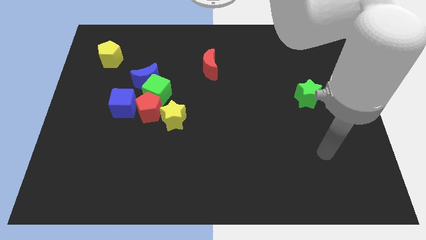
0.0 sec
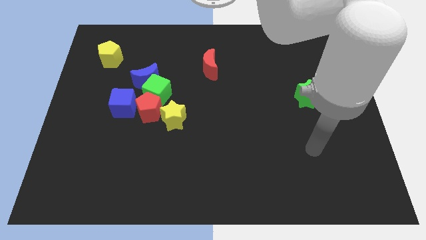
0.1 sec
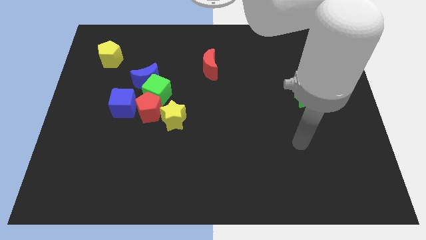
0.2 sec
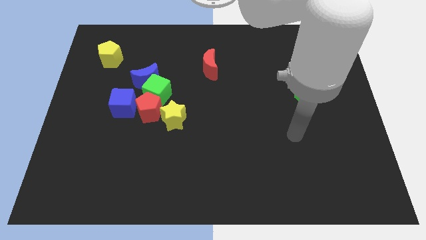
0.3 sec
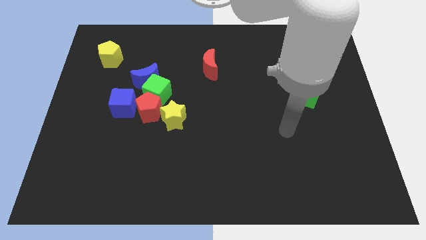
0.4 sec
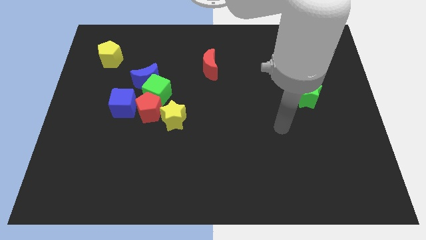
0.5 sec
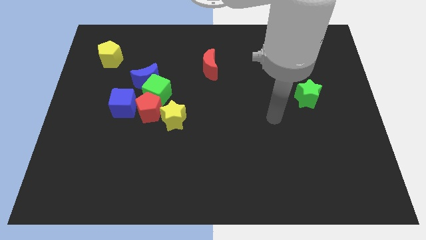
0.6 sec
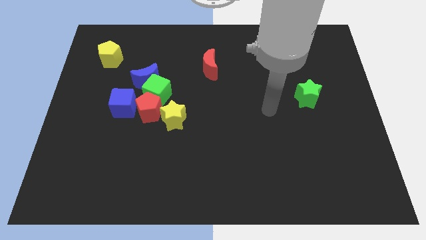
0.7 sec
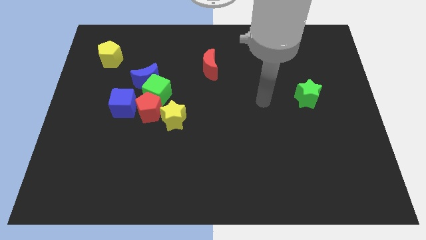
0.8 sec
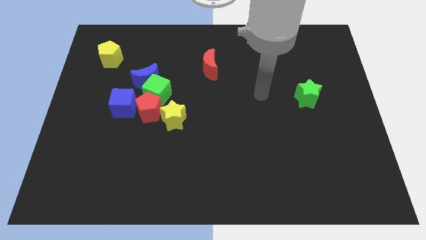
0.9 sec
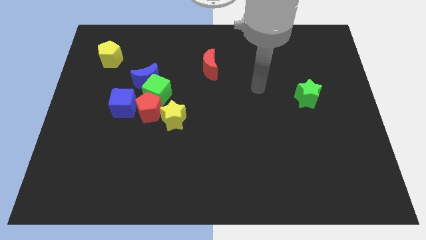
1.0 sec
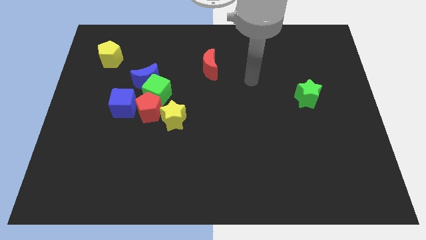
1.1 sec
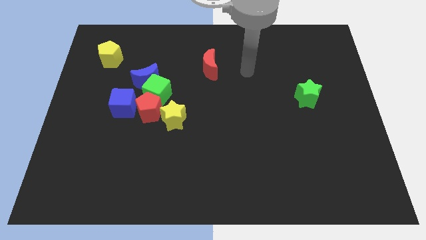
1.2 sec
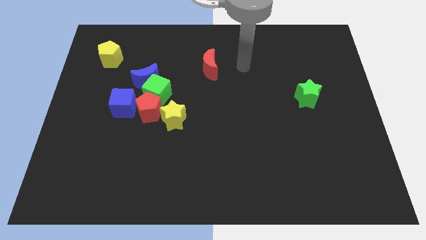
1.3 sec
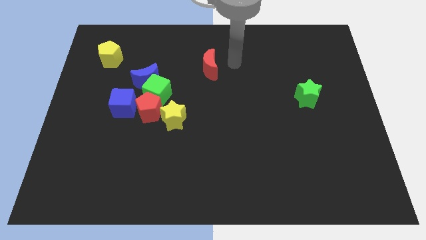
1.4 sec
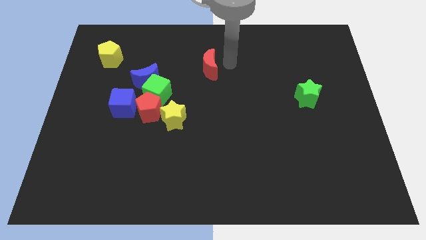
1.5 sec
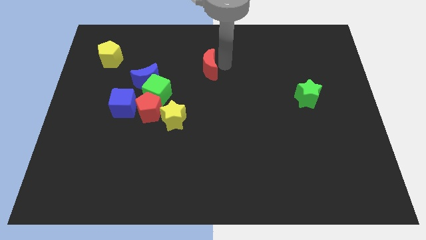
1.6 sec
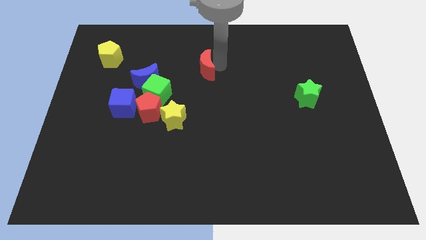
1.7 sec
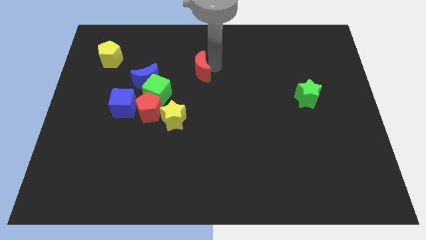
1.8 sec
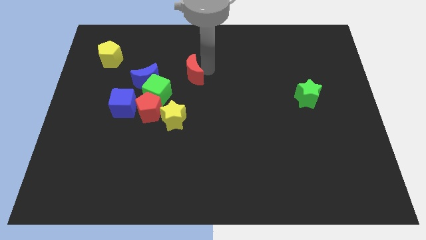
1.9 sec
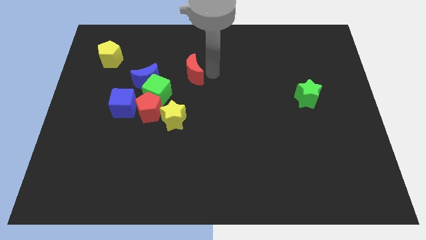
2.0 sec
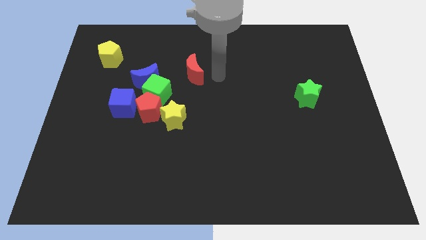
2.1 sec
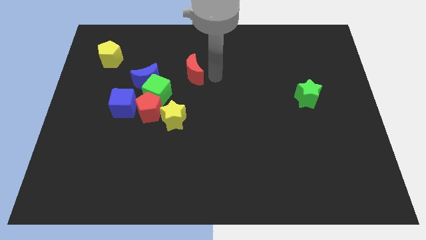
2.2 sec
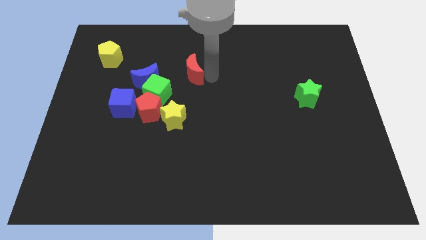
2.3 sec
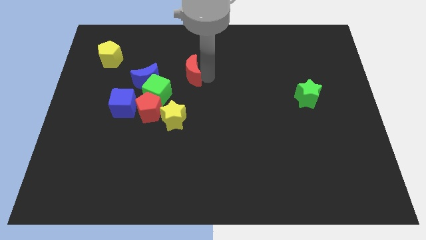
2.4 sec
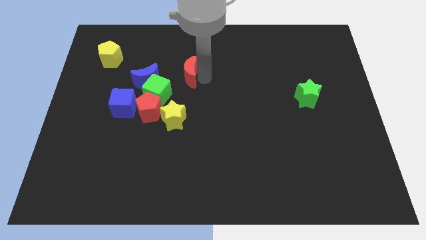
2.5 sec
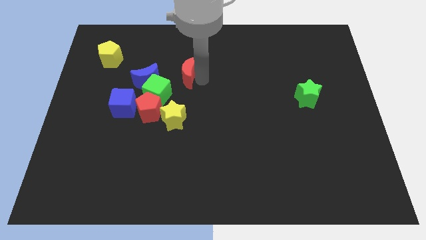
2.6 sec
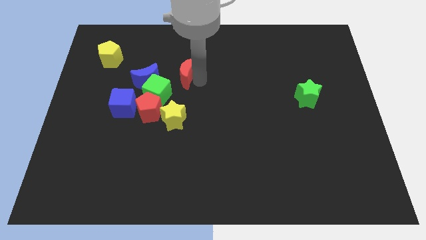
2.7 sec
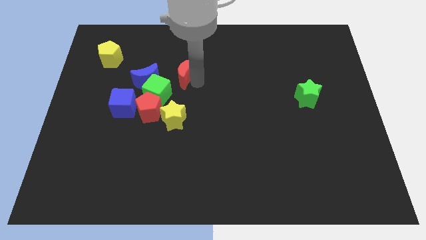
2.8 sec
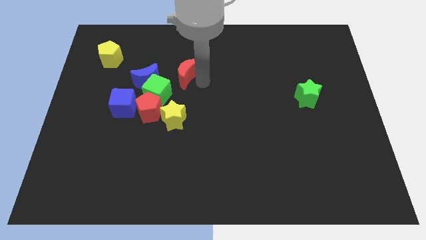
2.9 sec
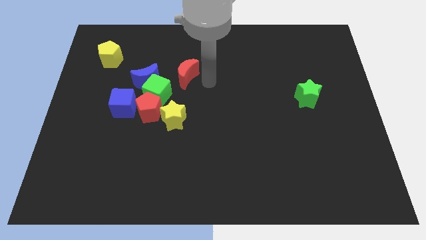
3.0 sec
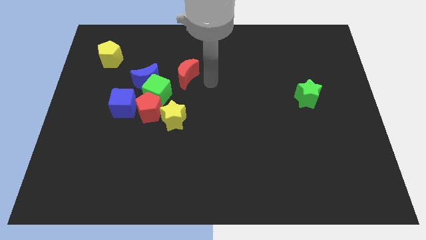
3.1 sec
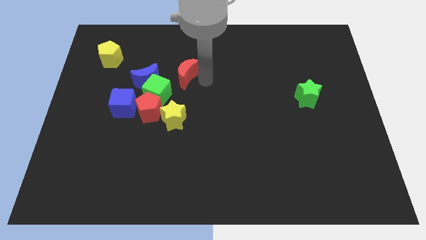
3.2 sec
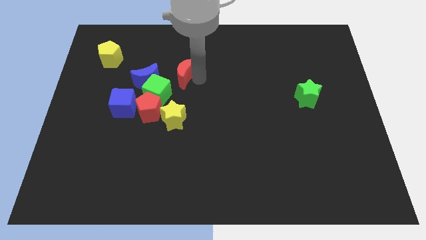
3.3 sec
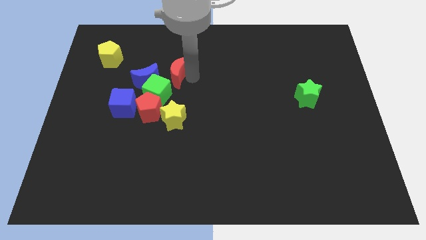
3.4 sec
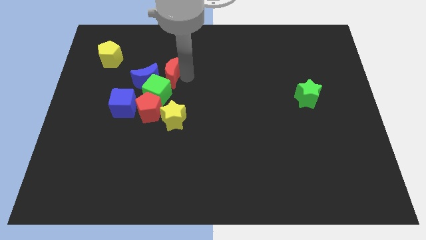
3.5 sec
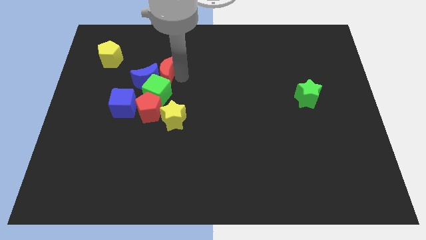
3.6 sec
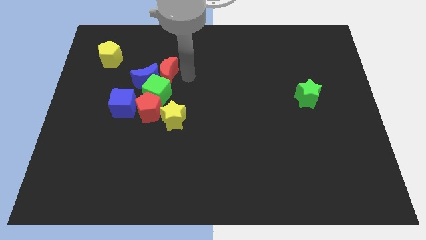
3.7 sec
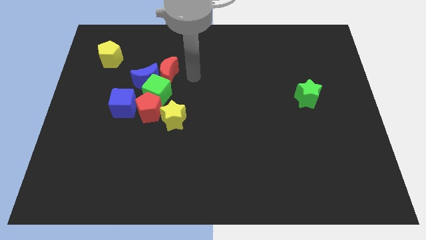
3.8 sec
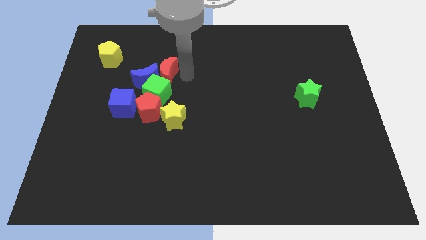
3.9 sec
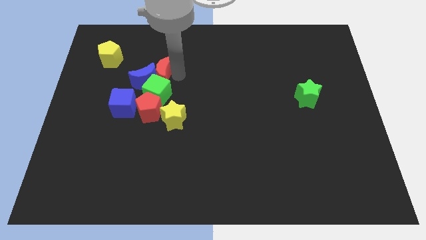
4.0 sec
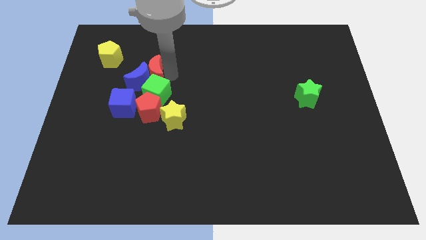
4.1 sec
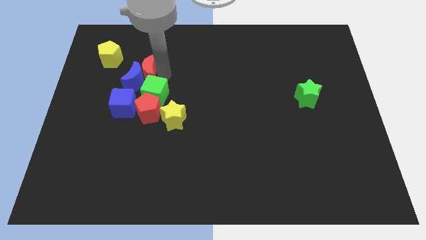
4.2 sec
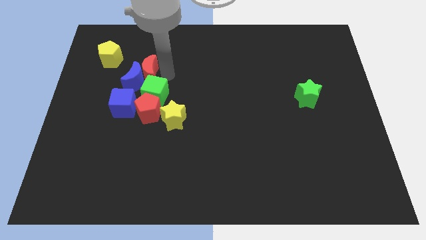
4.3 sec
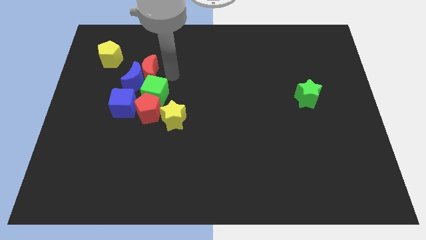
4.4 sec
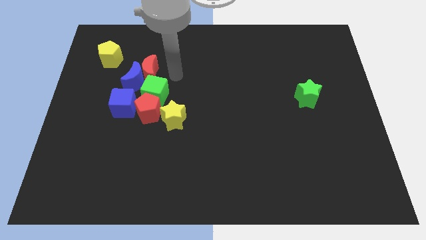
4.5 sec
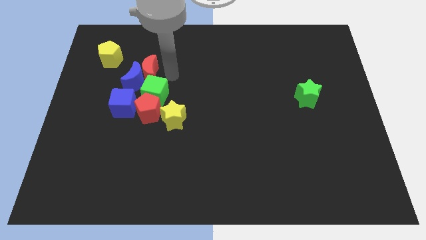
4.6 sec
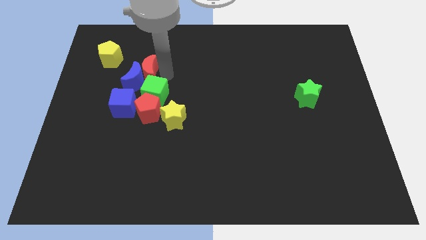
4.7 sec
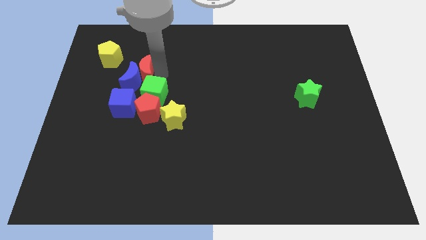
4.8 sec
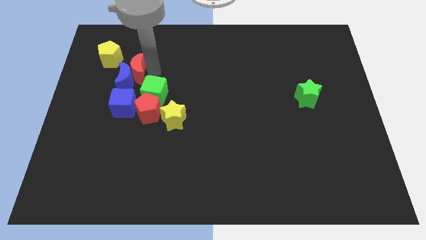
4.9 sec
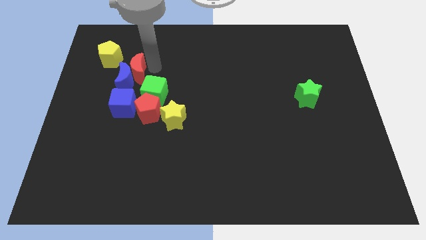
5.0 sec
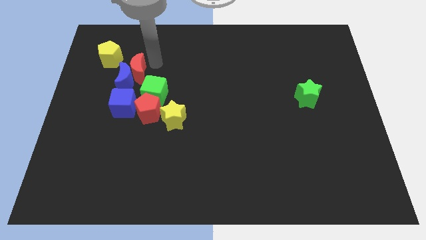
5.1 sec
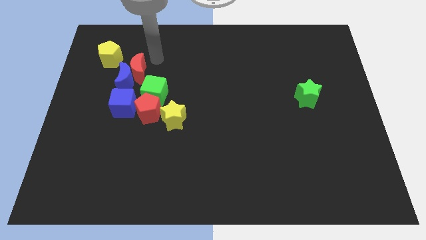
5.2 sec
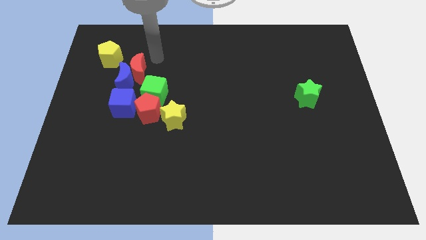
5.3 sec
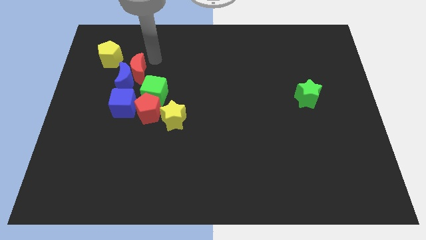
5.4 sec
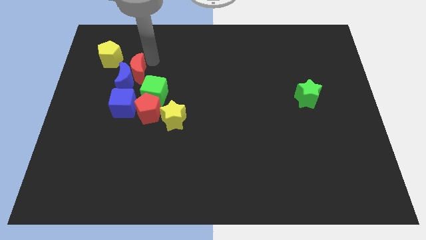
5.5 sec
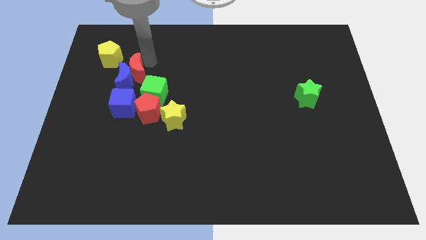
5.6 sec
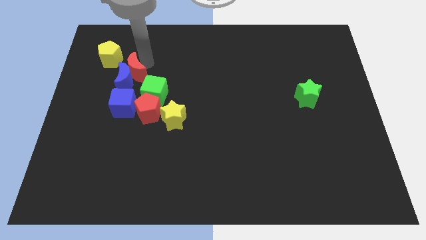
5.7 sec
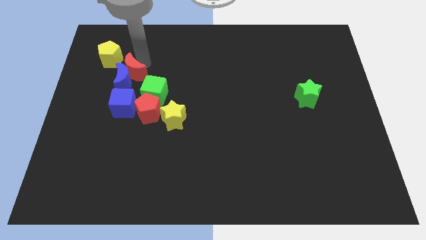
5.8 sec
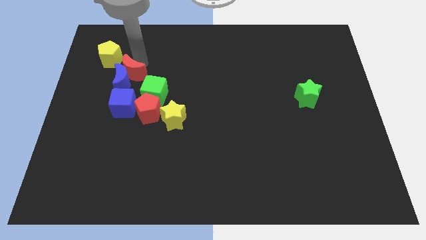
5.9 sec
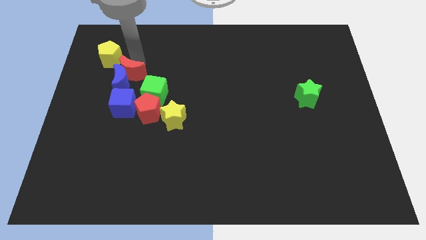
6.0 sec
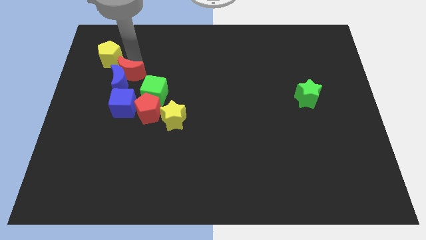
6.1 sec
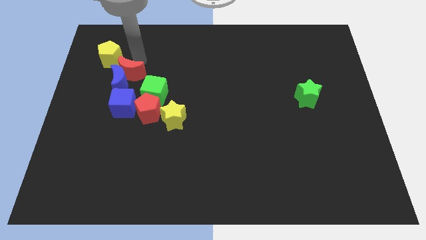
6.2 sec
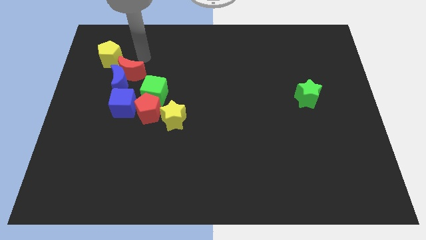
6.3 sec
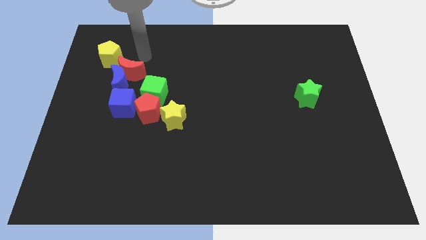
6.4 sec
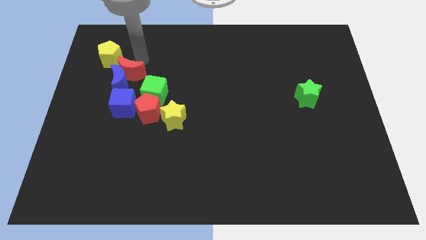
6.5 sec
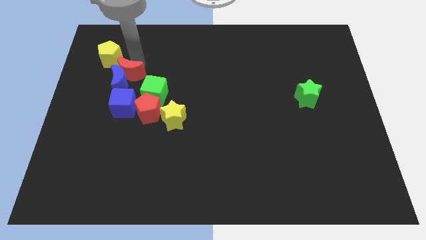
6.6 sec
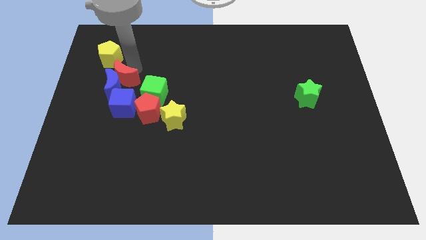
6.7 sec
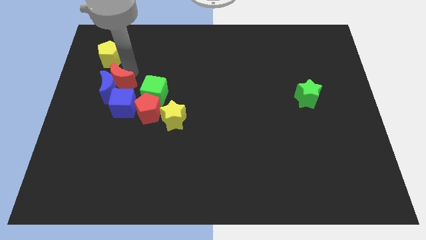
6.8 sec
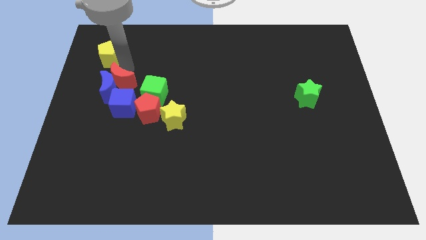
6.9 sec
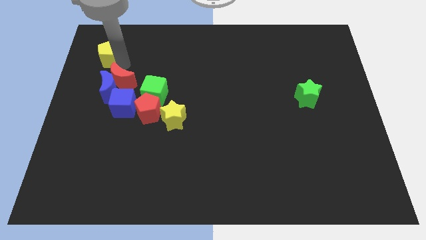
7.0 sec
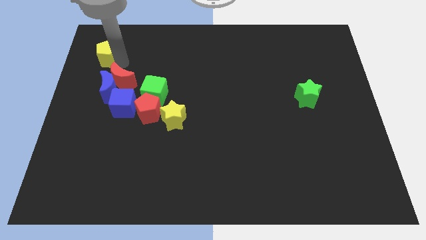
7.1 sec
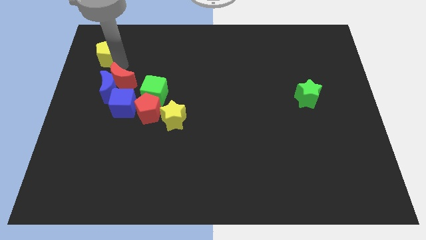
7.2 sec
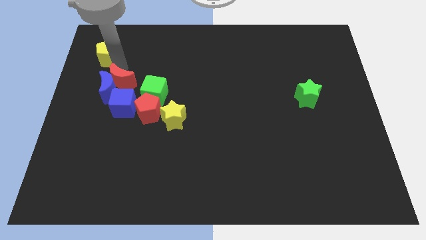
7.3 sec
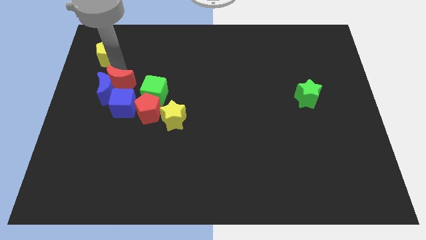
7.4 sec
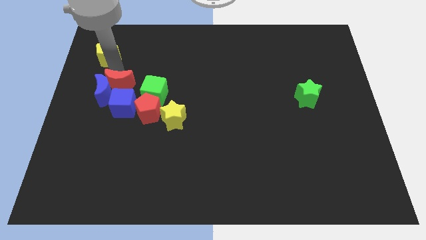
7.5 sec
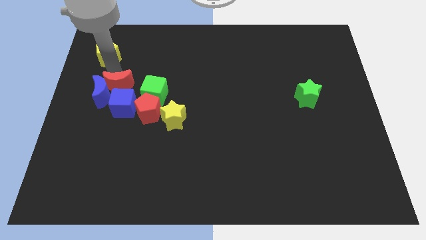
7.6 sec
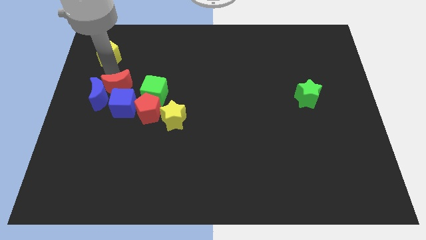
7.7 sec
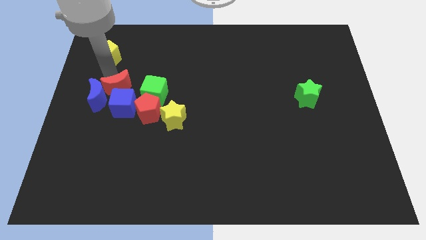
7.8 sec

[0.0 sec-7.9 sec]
slide the red moon towards the blue cube
